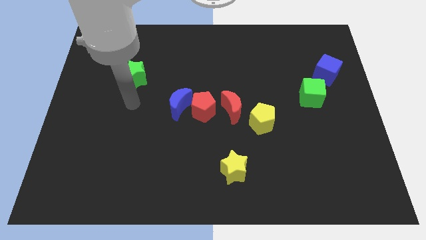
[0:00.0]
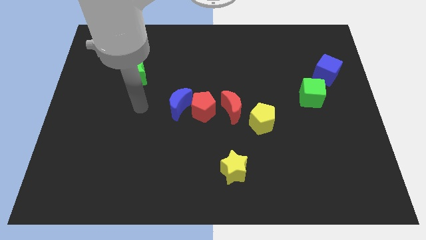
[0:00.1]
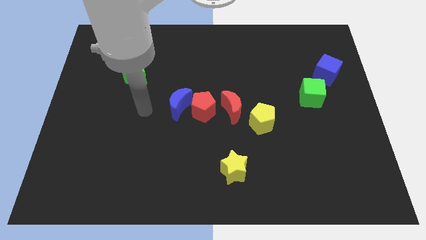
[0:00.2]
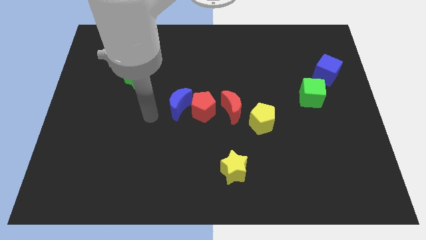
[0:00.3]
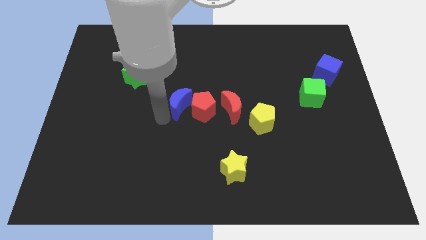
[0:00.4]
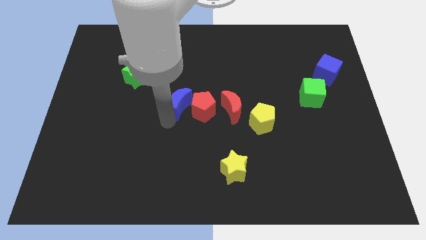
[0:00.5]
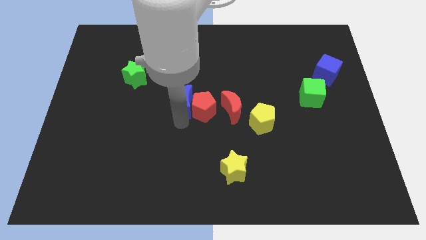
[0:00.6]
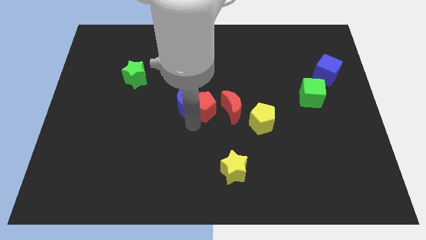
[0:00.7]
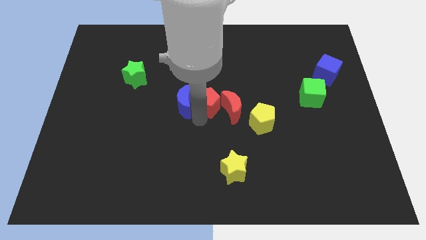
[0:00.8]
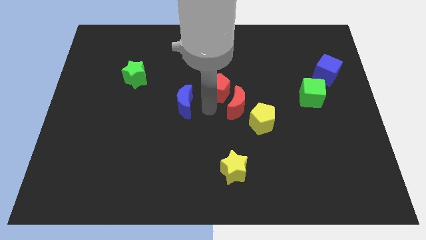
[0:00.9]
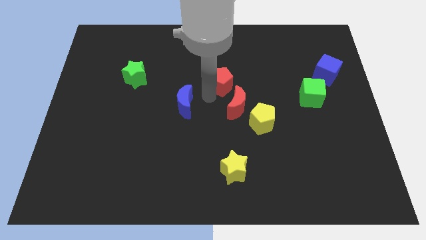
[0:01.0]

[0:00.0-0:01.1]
move the blue moon away from the red pentagon

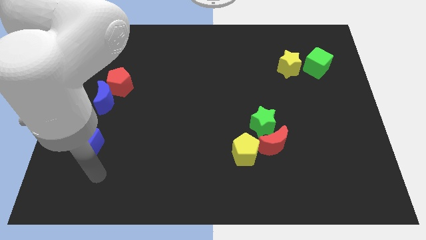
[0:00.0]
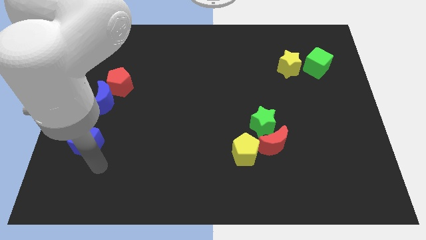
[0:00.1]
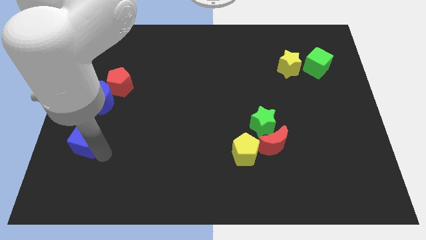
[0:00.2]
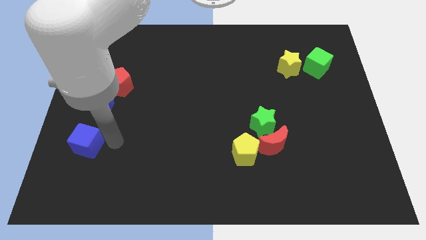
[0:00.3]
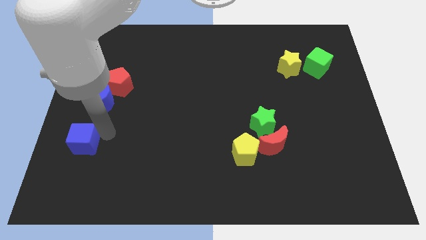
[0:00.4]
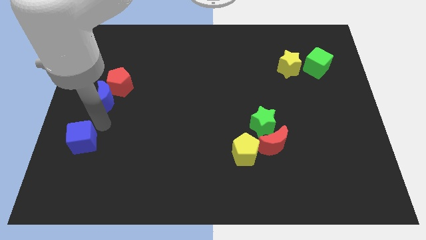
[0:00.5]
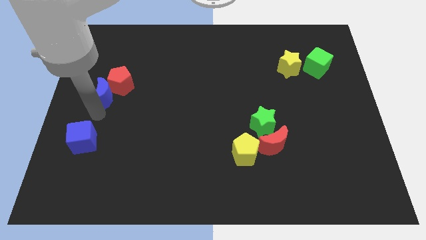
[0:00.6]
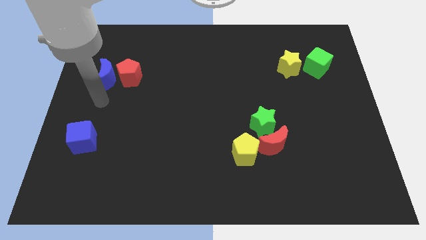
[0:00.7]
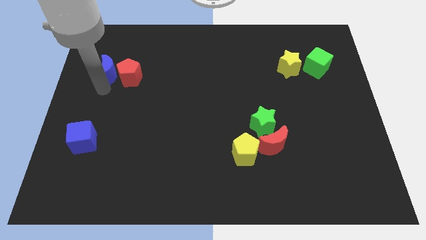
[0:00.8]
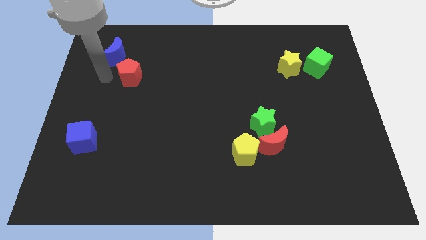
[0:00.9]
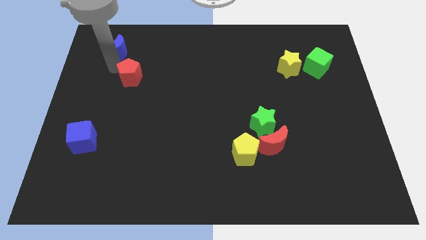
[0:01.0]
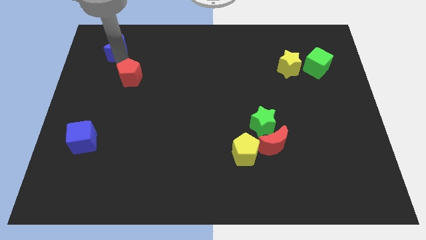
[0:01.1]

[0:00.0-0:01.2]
move the red pentagon away from the blue moon

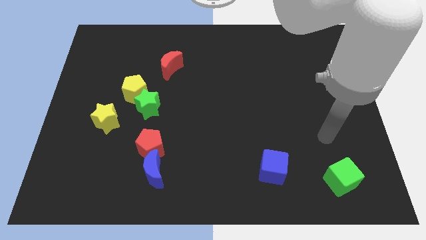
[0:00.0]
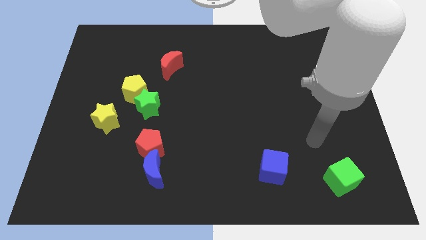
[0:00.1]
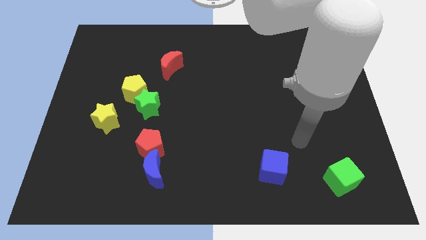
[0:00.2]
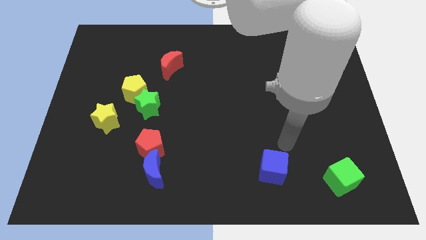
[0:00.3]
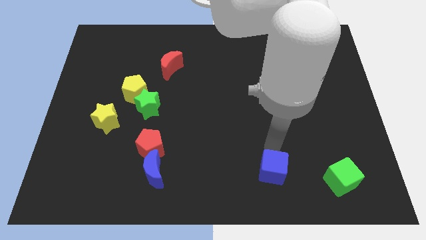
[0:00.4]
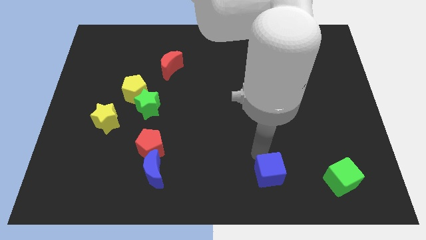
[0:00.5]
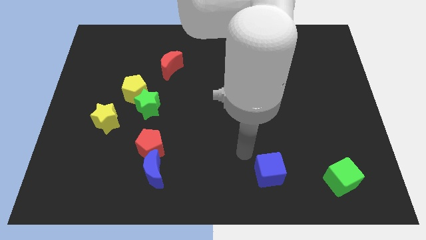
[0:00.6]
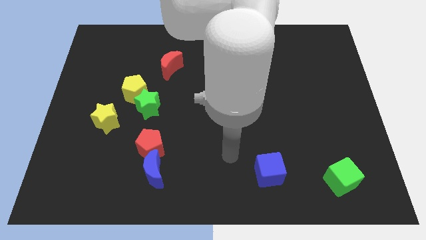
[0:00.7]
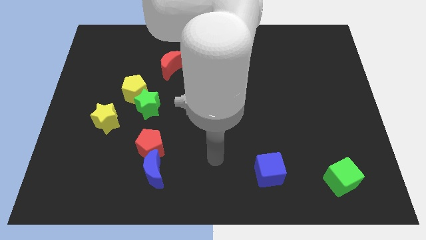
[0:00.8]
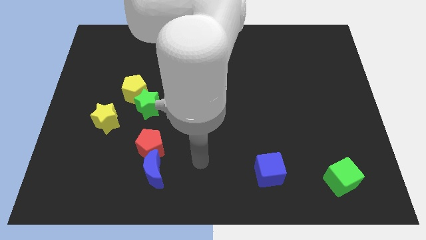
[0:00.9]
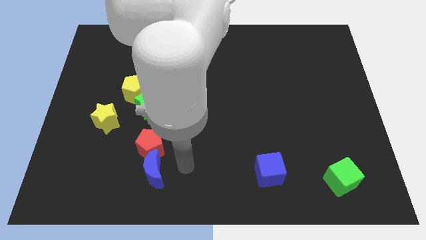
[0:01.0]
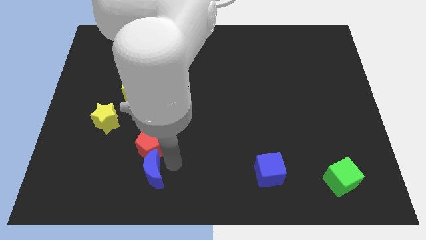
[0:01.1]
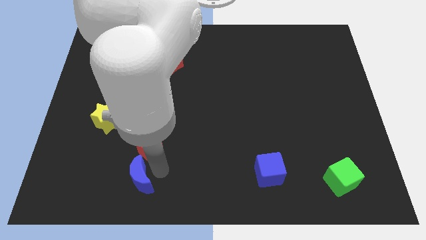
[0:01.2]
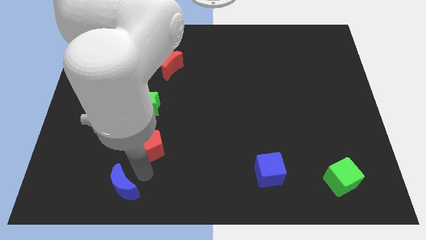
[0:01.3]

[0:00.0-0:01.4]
pull the red pentagon apart from the blue moon

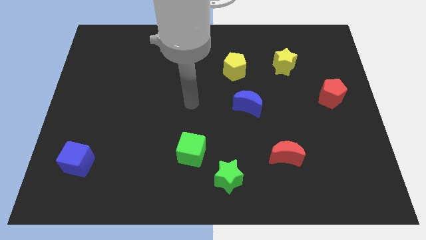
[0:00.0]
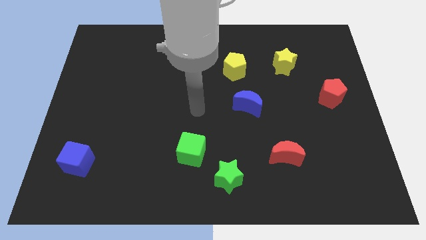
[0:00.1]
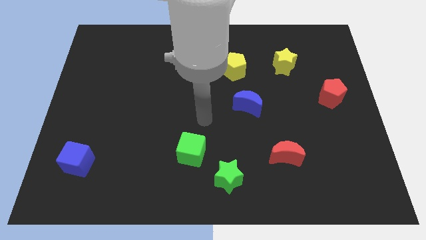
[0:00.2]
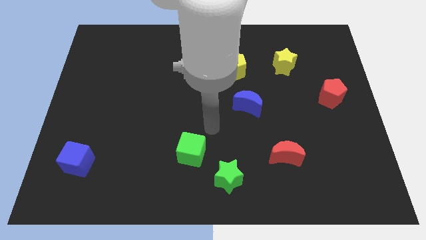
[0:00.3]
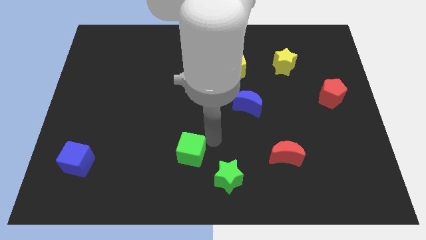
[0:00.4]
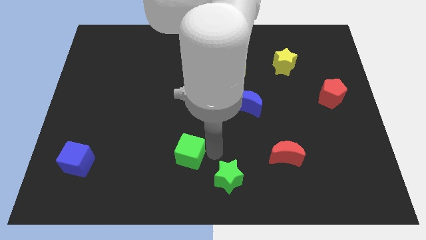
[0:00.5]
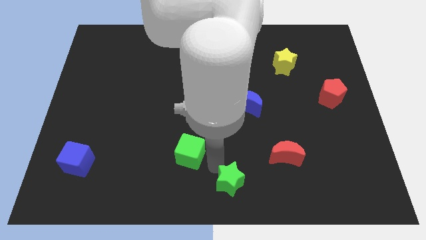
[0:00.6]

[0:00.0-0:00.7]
pull the green cube apart from the green star

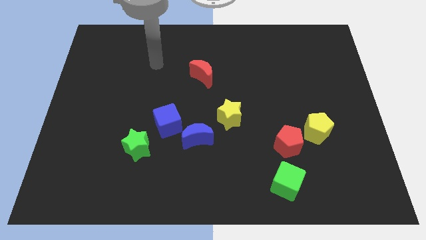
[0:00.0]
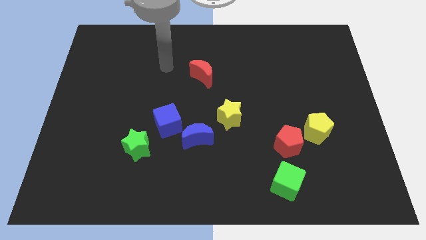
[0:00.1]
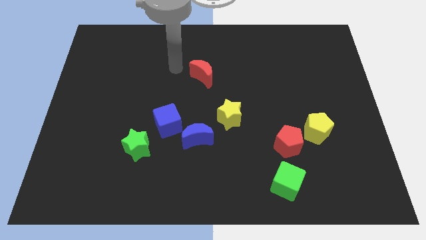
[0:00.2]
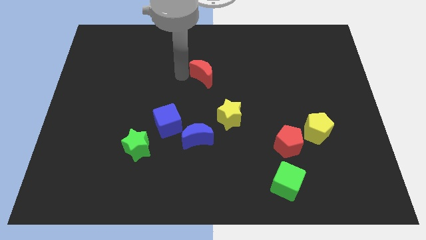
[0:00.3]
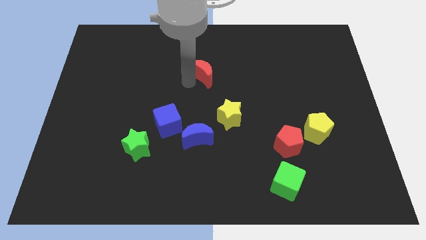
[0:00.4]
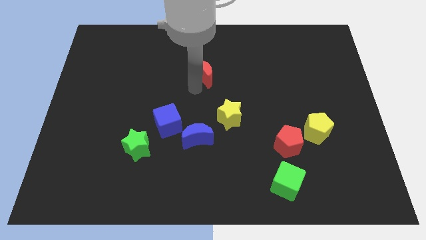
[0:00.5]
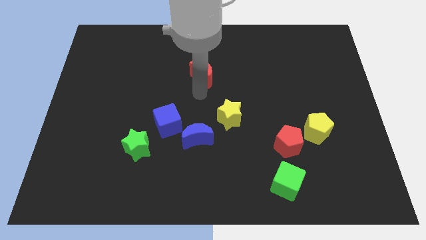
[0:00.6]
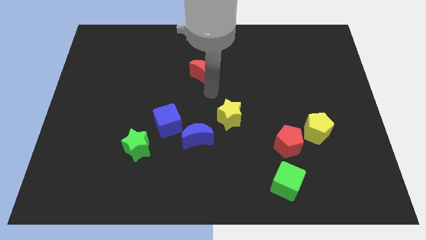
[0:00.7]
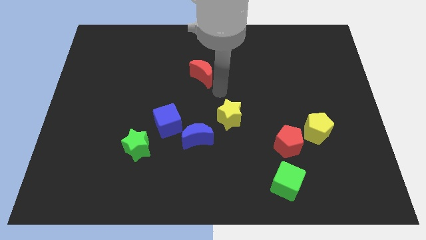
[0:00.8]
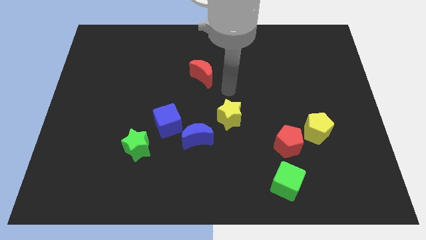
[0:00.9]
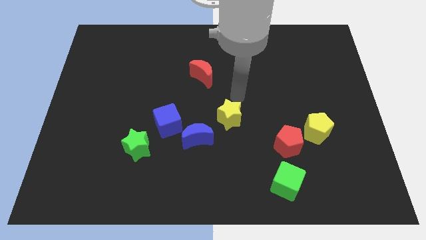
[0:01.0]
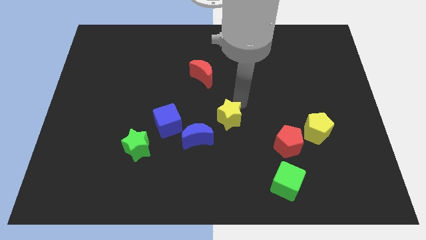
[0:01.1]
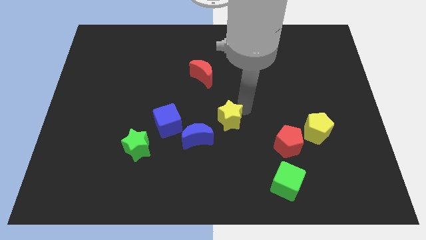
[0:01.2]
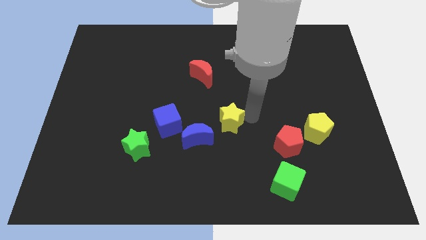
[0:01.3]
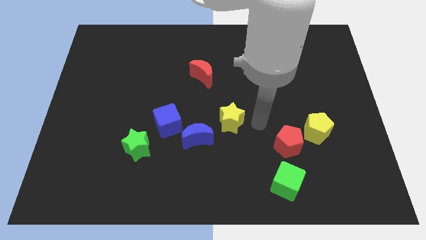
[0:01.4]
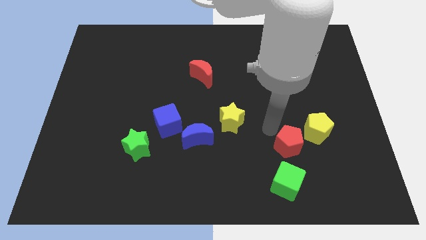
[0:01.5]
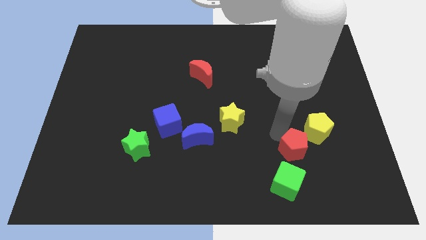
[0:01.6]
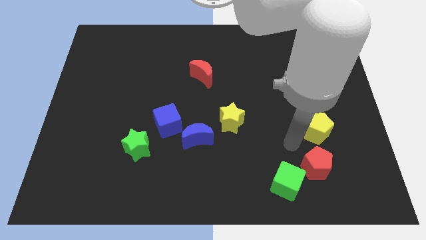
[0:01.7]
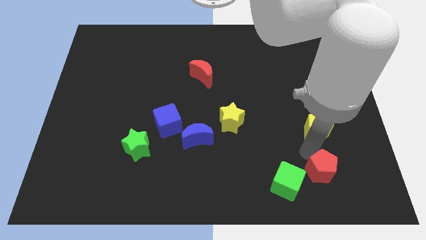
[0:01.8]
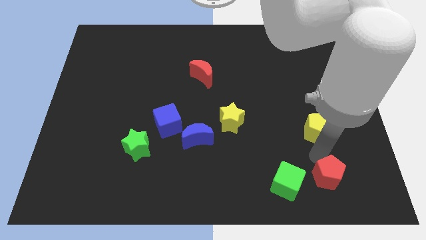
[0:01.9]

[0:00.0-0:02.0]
separate the yellow pentagon from the red pentagon

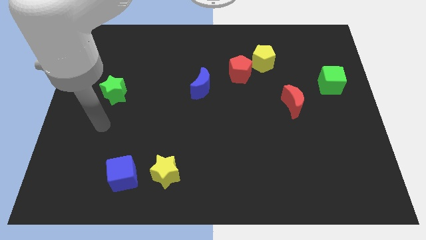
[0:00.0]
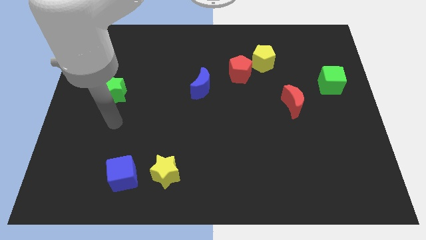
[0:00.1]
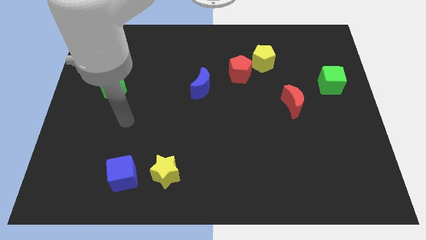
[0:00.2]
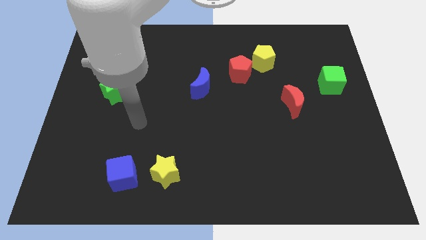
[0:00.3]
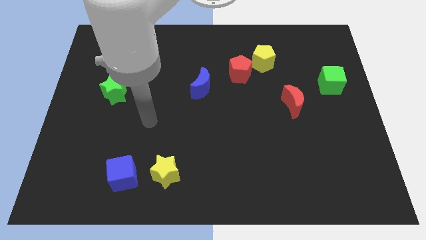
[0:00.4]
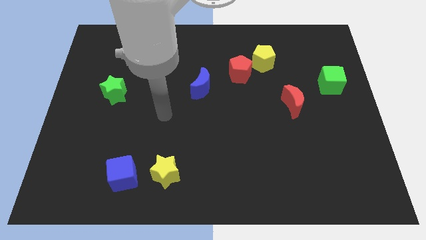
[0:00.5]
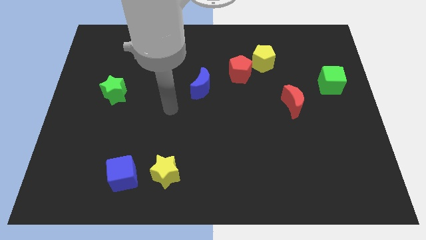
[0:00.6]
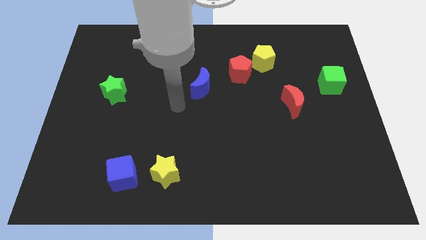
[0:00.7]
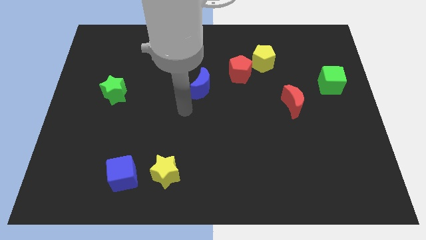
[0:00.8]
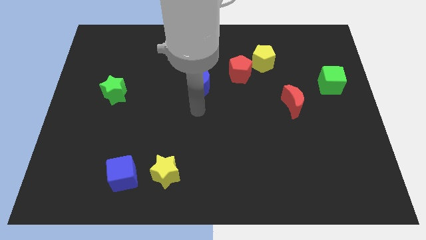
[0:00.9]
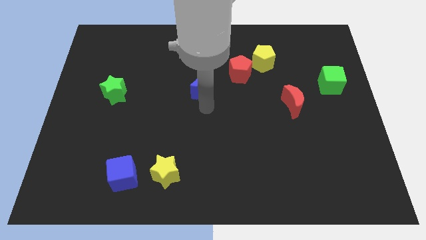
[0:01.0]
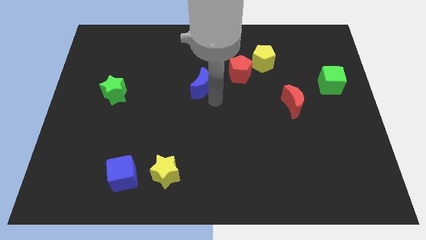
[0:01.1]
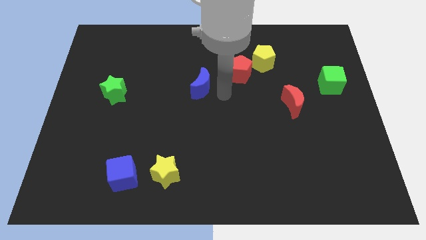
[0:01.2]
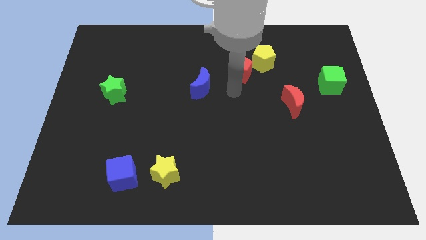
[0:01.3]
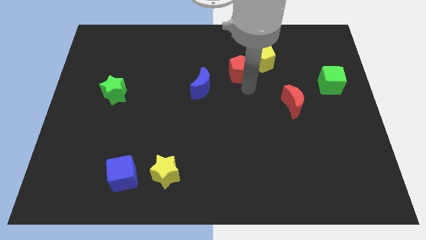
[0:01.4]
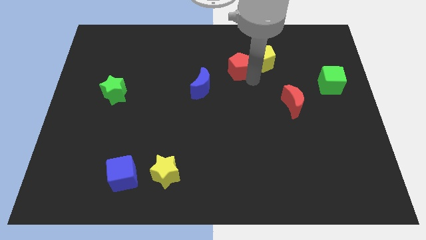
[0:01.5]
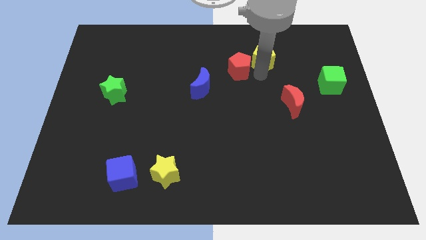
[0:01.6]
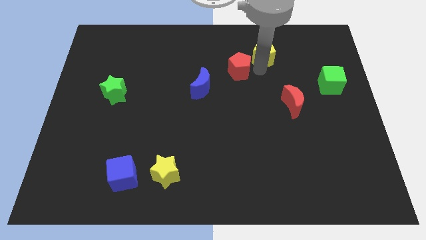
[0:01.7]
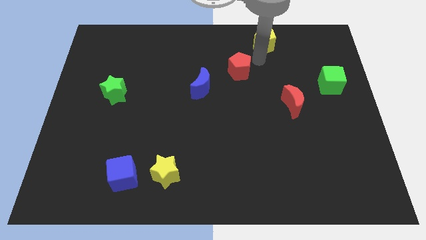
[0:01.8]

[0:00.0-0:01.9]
move the red pentagon away from the yellow pentagon

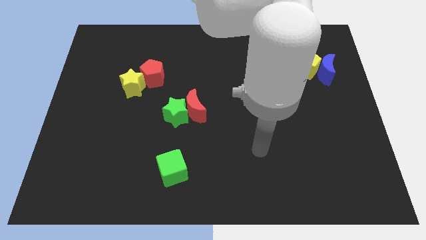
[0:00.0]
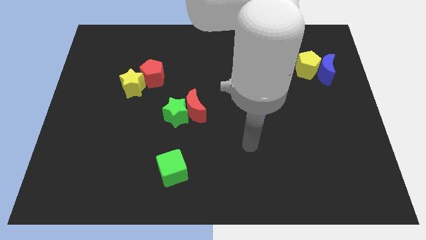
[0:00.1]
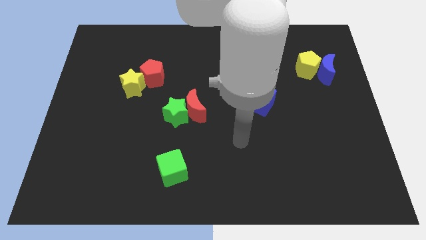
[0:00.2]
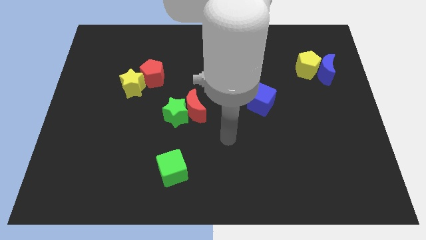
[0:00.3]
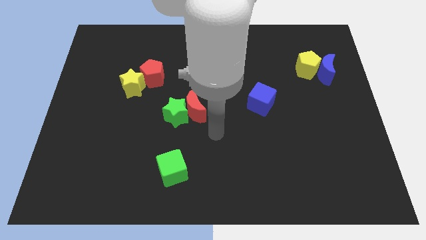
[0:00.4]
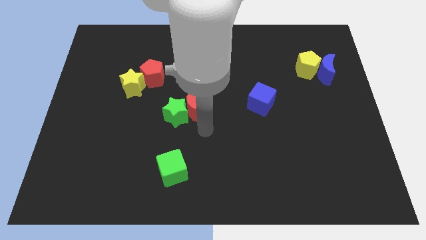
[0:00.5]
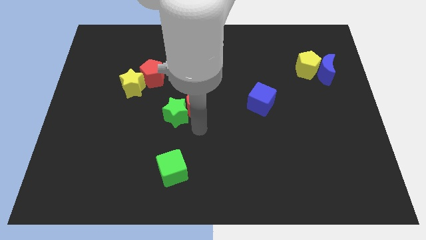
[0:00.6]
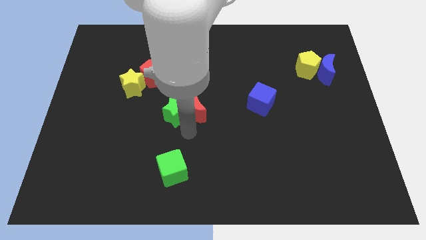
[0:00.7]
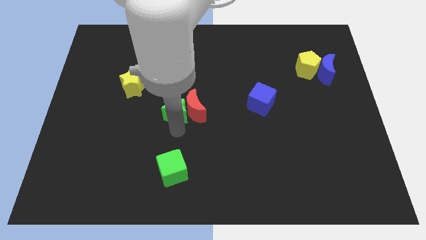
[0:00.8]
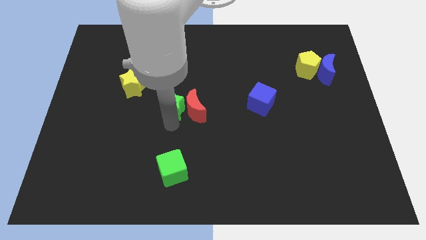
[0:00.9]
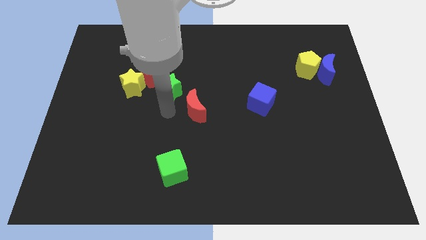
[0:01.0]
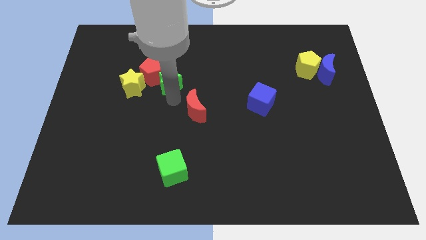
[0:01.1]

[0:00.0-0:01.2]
pull the red moon apart from the green star
